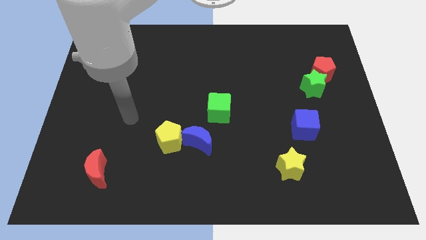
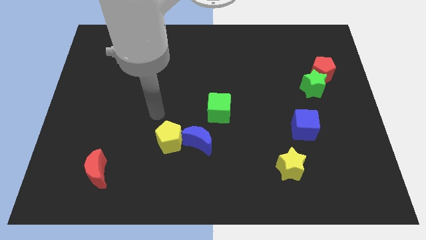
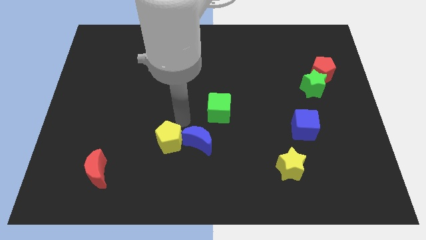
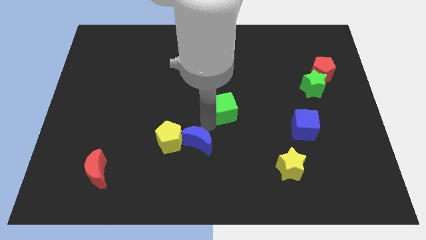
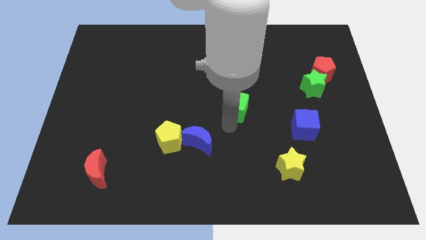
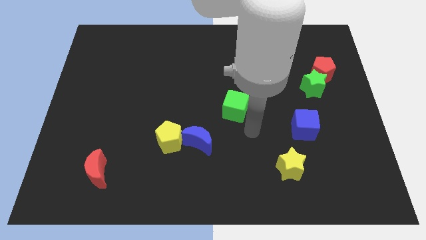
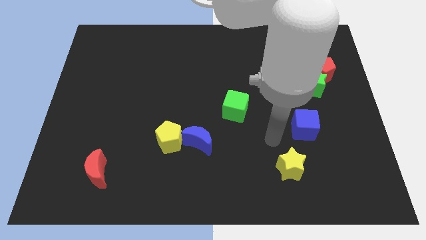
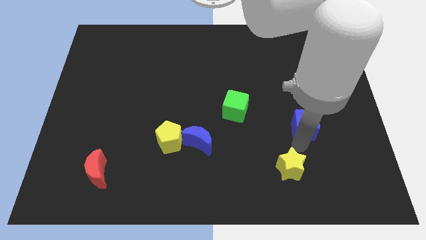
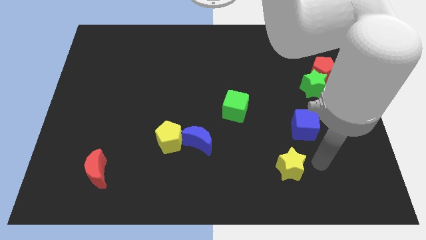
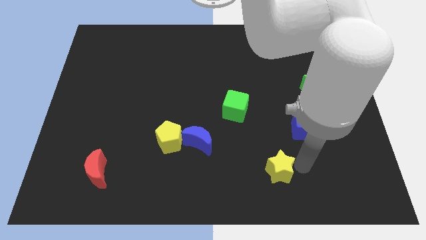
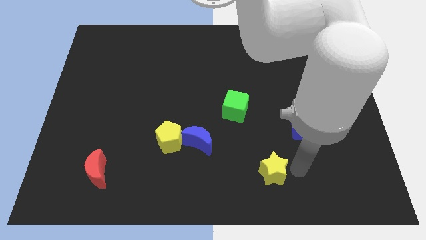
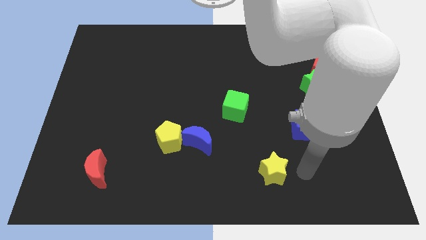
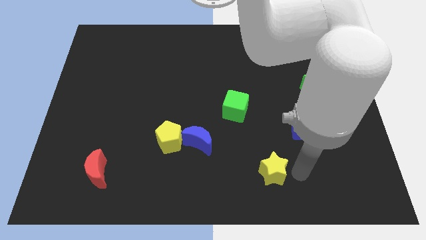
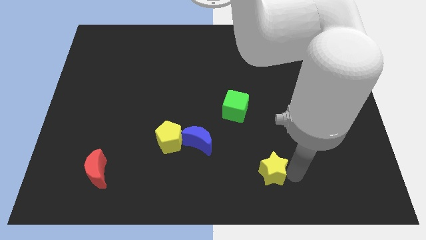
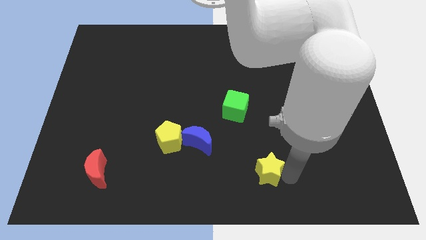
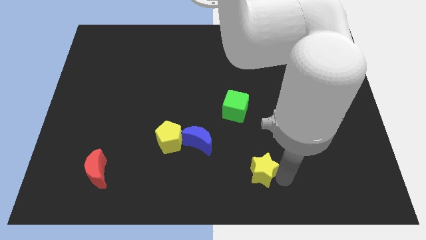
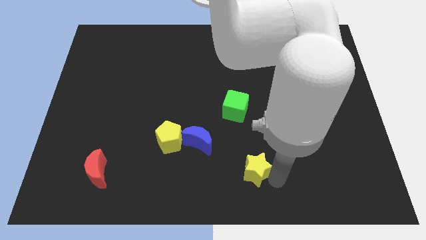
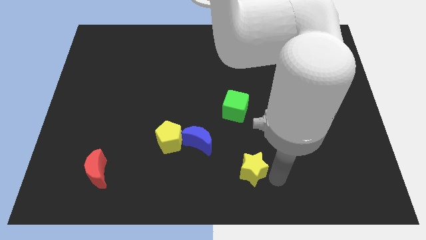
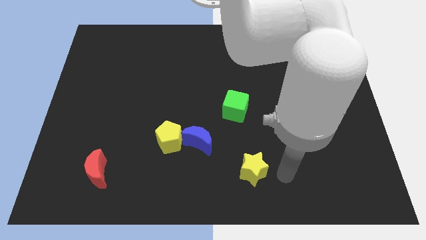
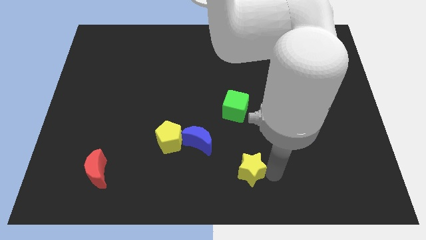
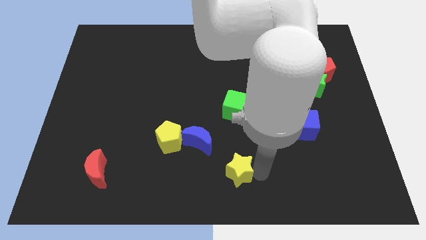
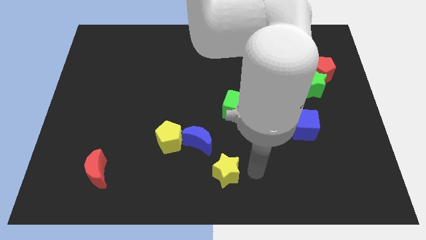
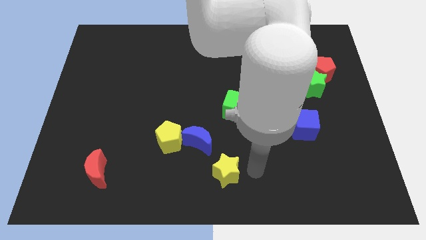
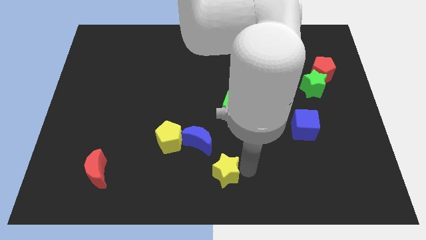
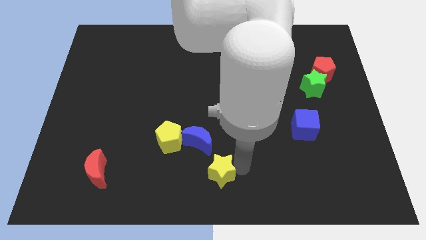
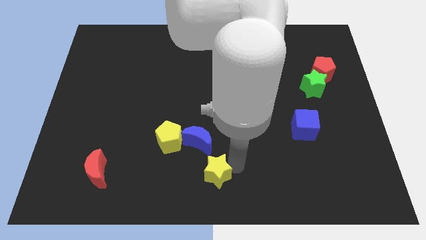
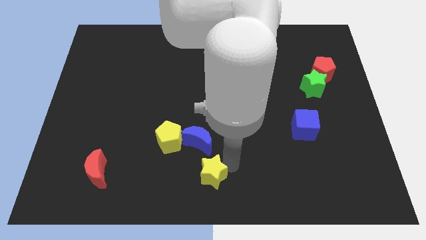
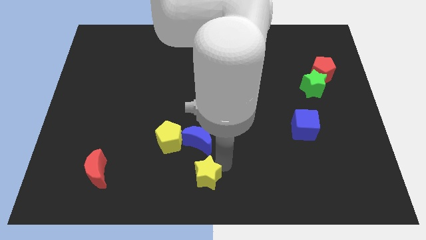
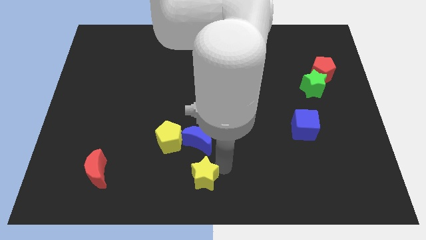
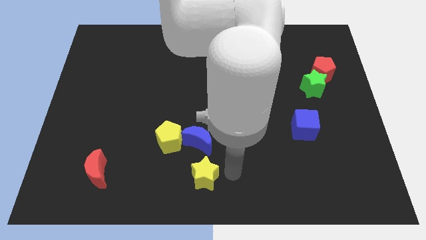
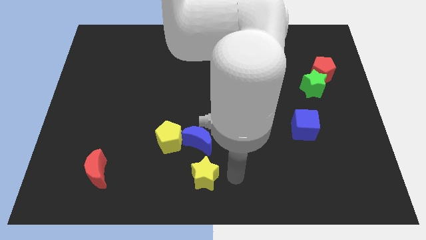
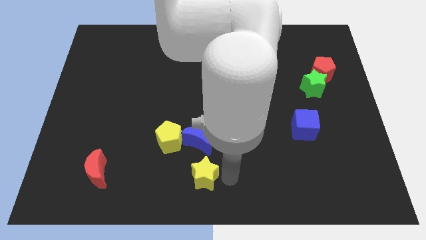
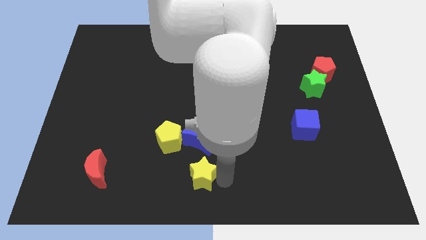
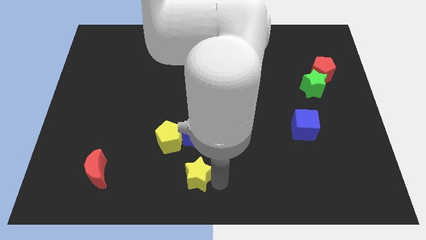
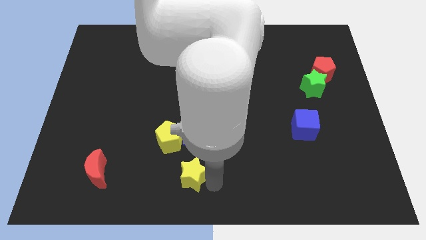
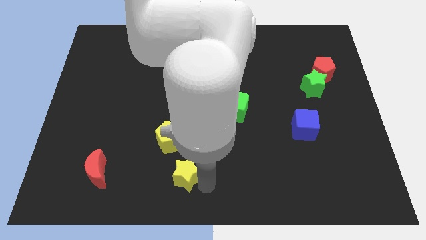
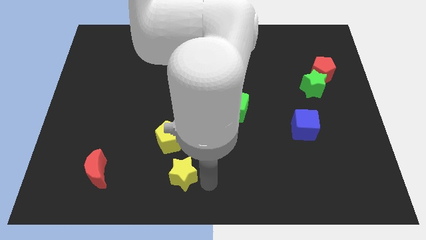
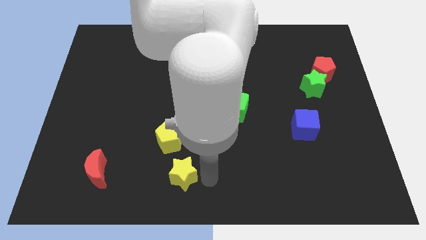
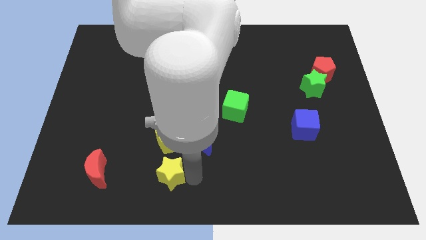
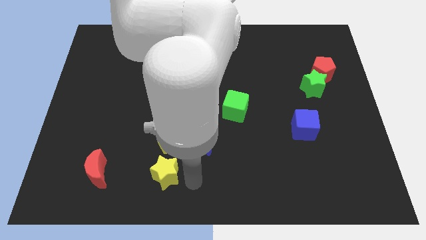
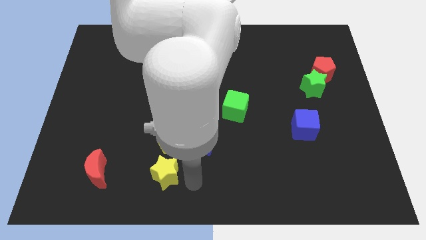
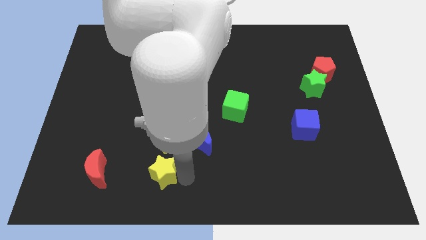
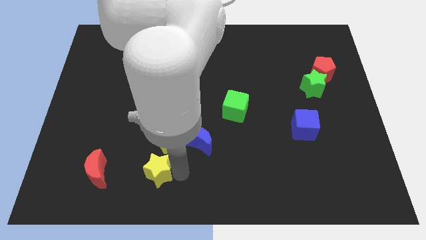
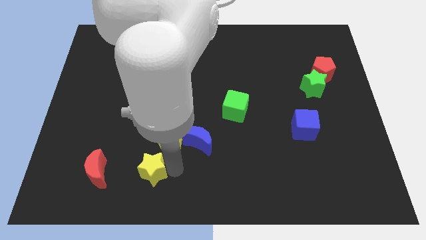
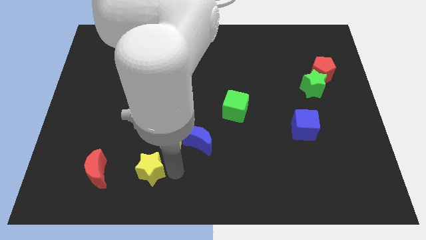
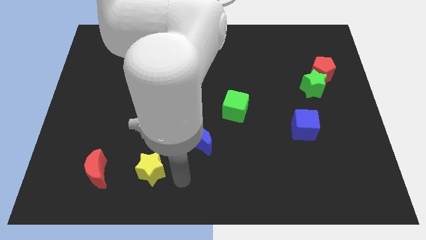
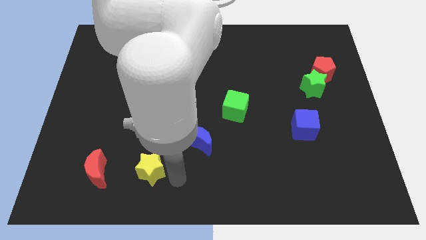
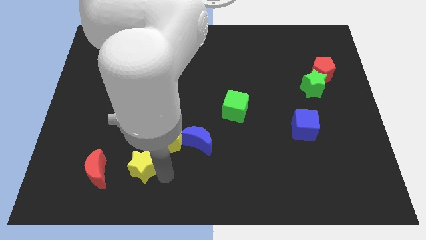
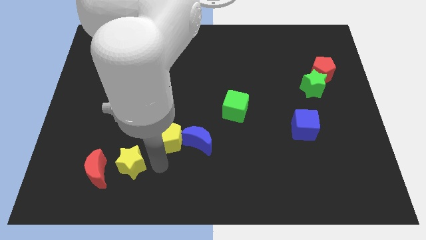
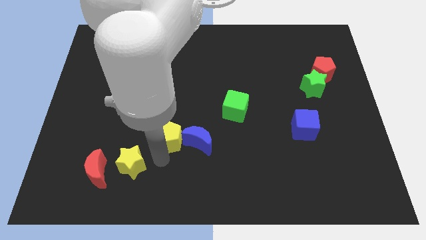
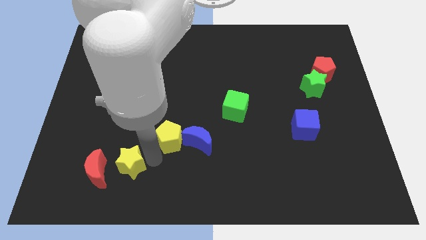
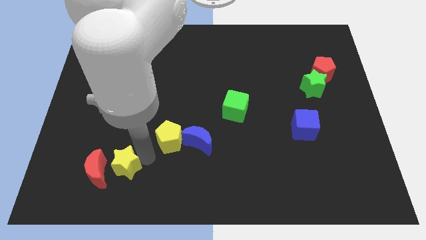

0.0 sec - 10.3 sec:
move the yellow star close to the red moon

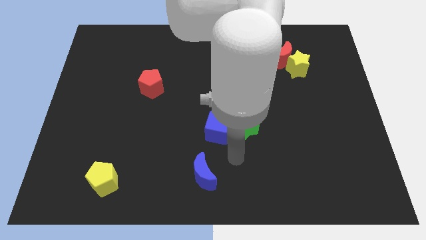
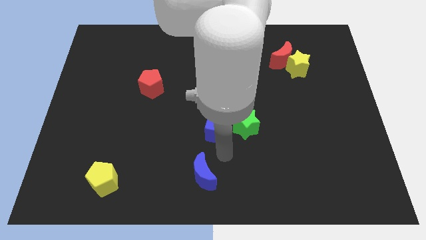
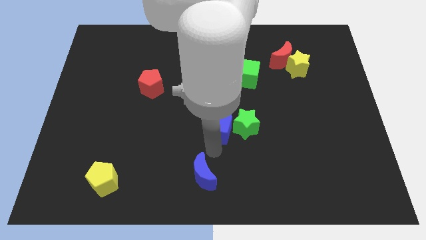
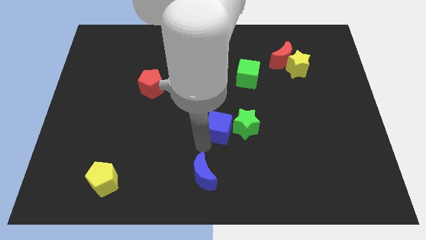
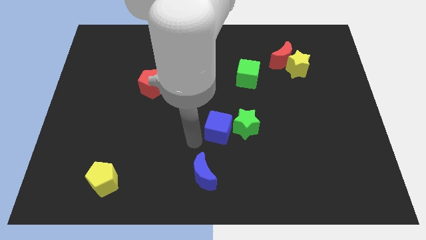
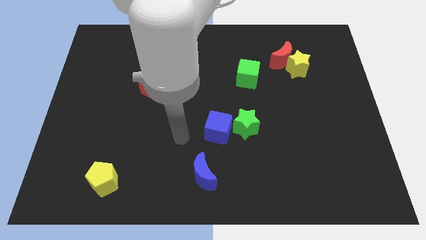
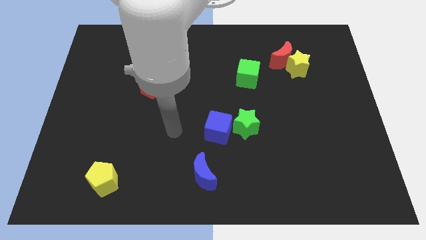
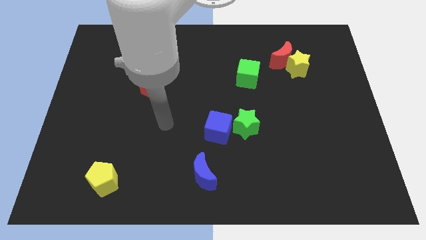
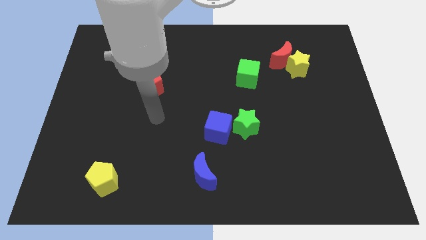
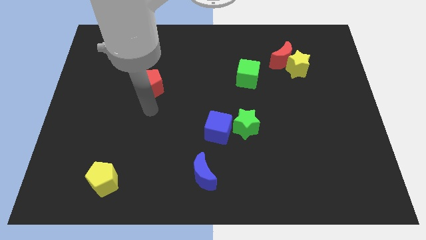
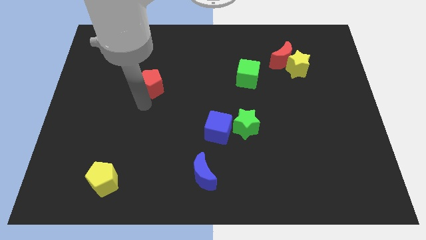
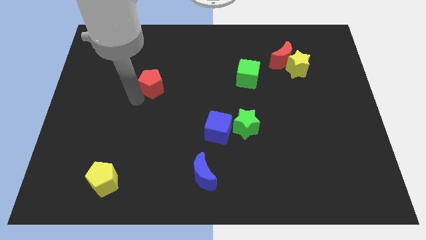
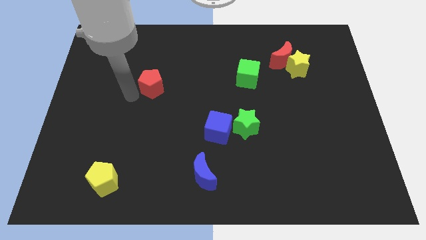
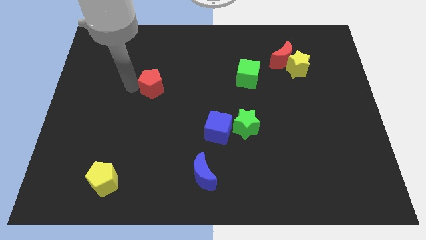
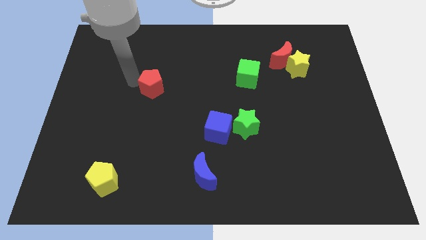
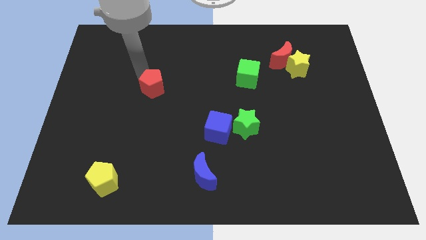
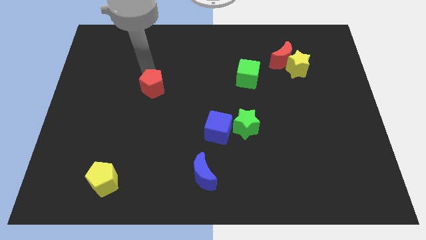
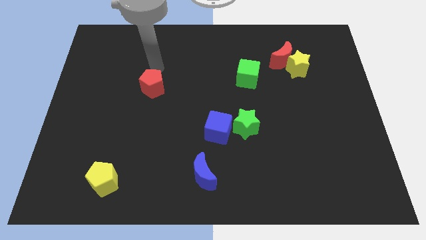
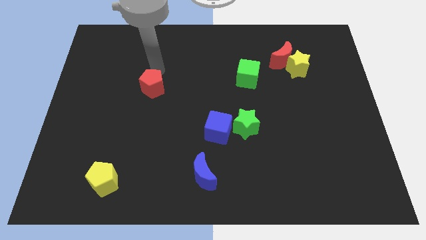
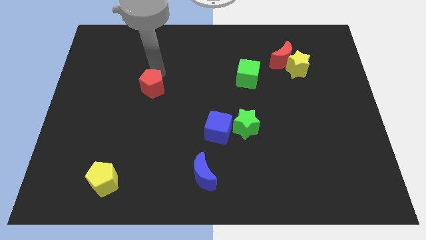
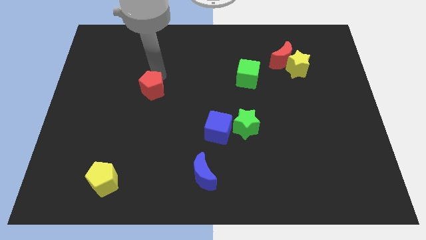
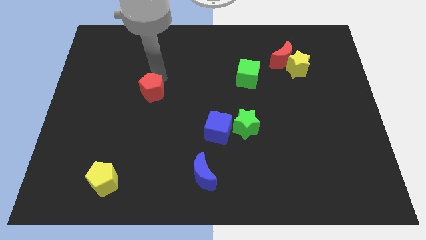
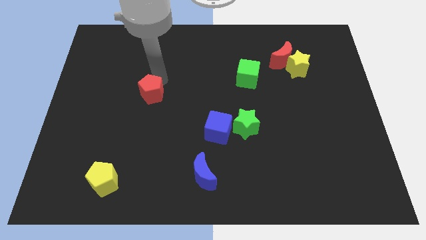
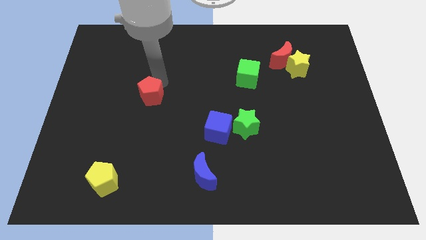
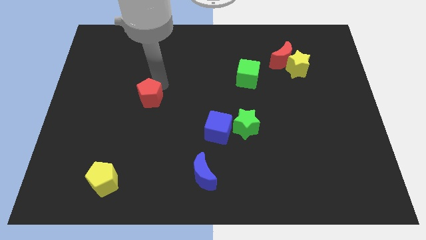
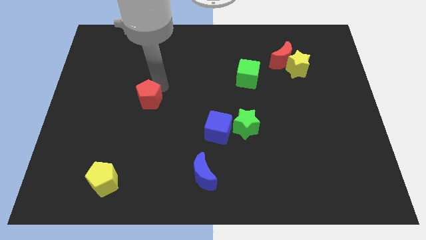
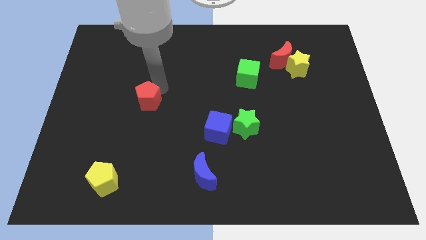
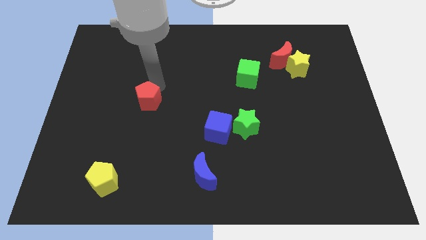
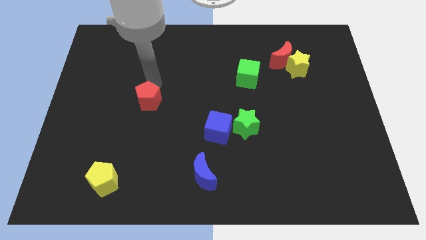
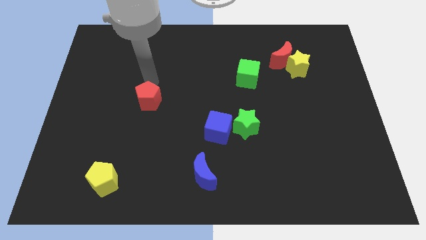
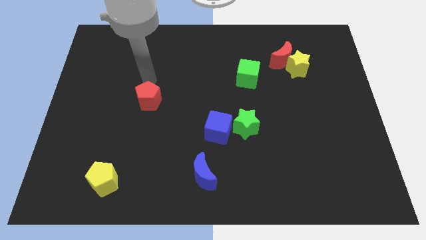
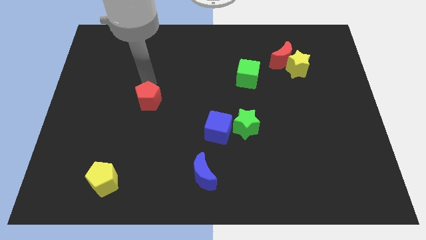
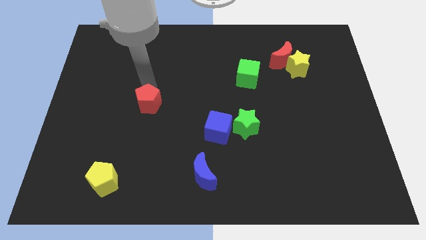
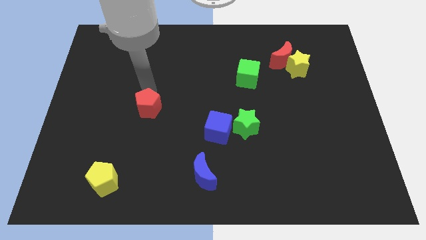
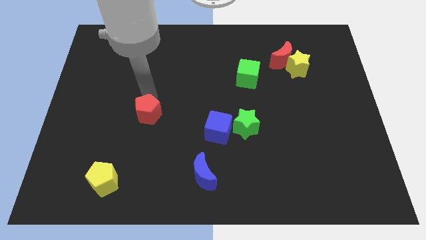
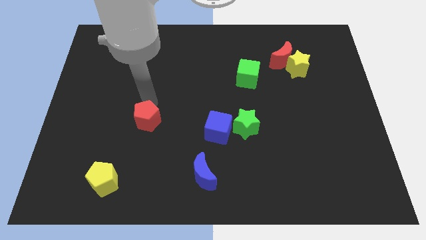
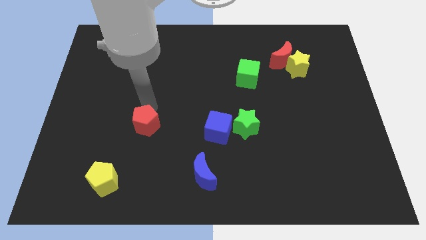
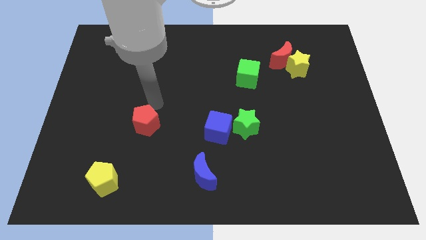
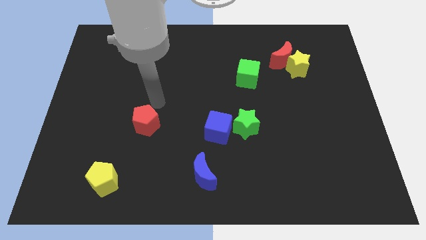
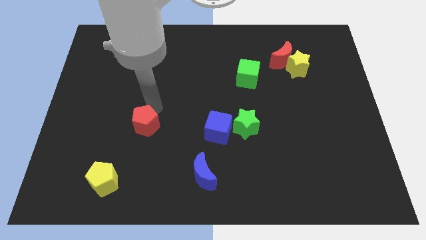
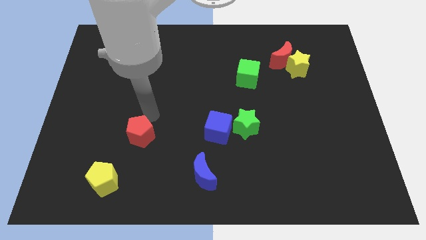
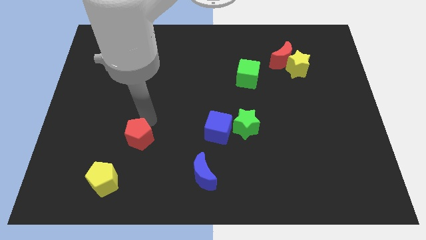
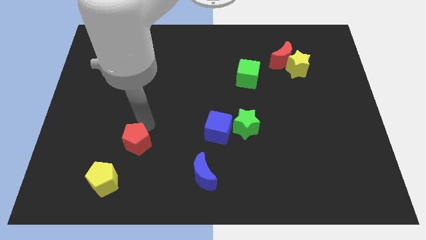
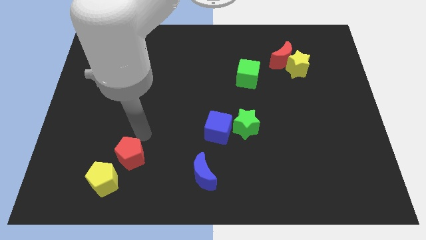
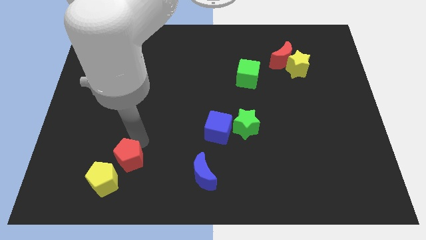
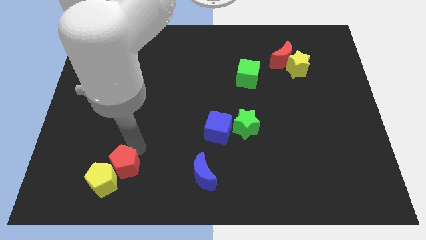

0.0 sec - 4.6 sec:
put the red pentagon to the yellow pentagon
